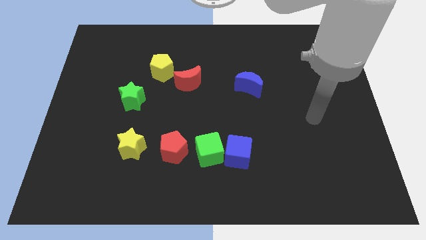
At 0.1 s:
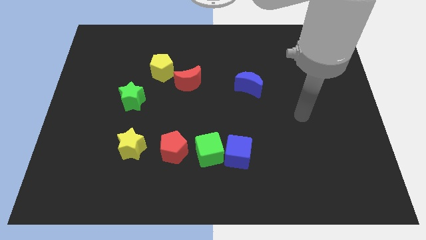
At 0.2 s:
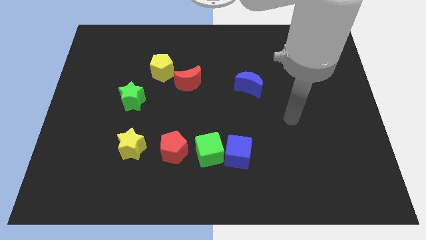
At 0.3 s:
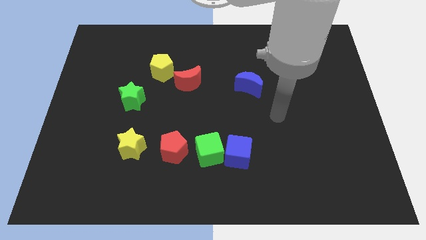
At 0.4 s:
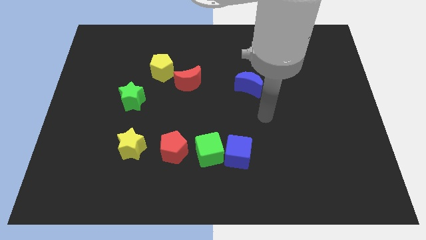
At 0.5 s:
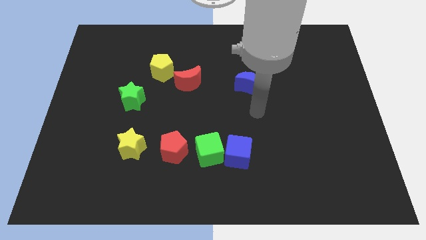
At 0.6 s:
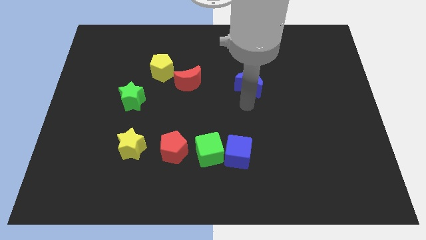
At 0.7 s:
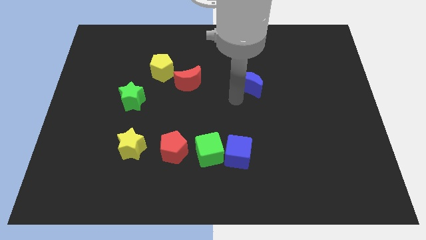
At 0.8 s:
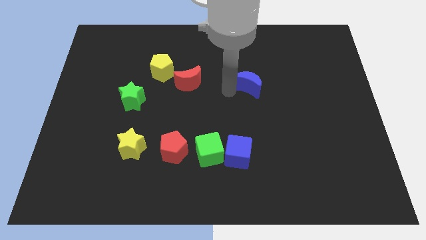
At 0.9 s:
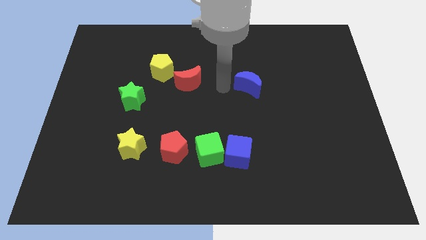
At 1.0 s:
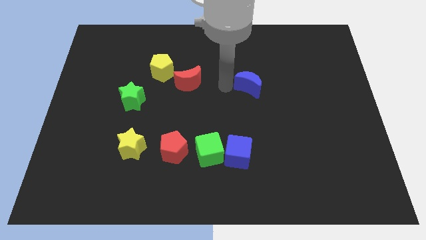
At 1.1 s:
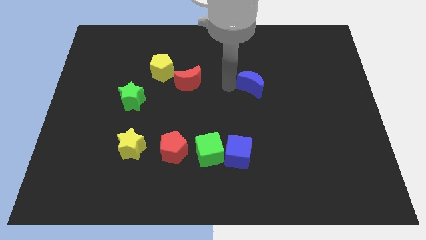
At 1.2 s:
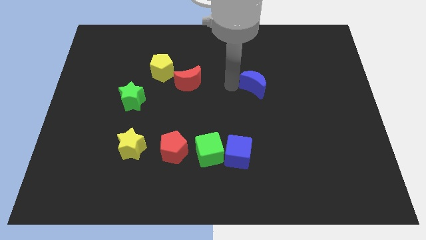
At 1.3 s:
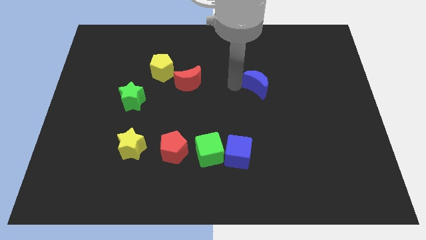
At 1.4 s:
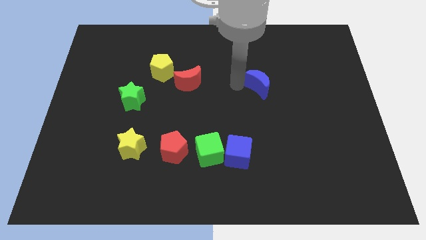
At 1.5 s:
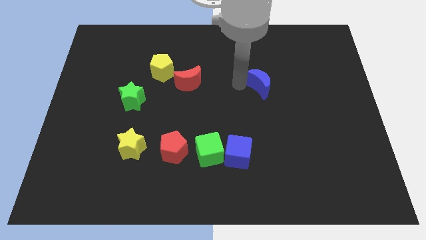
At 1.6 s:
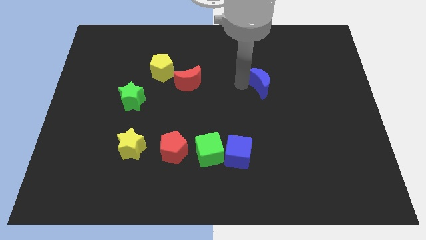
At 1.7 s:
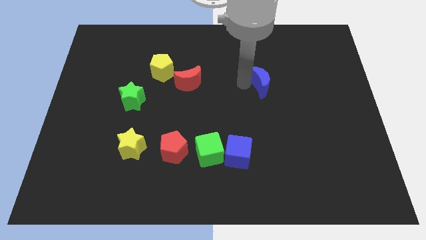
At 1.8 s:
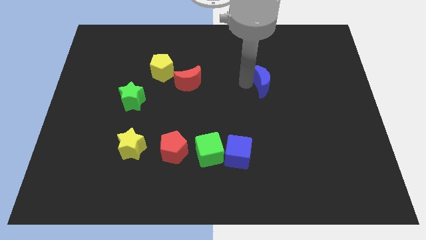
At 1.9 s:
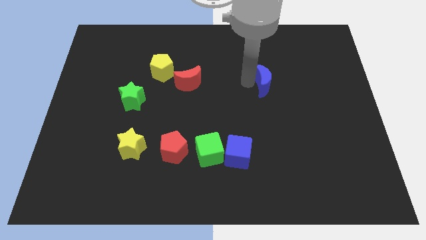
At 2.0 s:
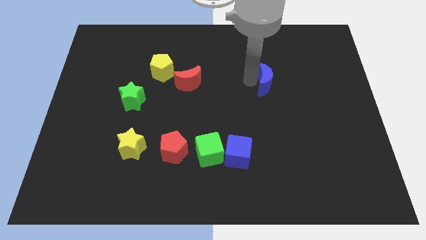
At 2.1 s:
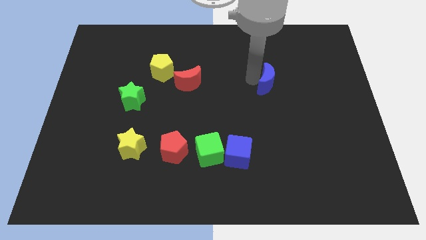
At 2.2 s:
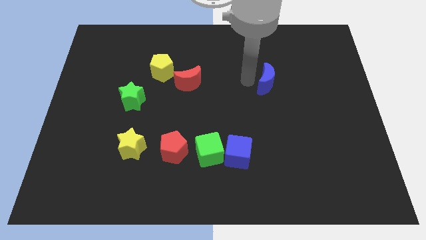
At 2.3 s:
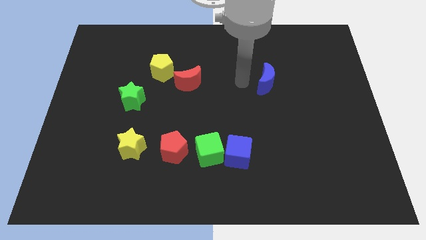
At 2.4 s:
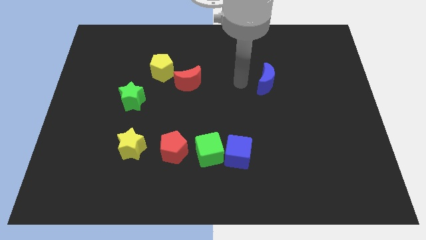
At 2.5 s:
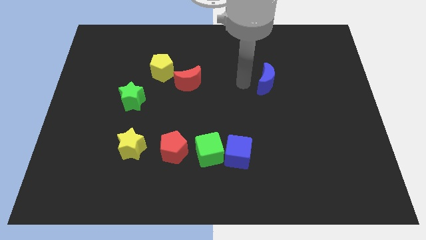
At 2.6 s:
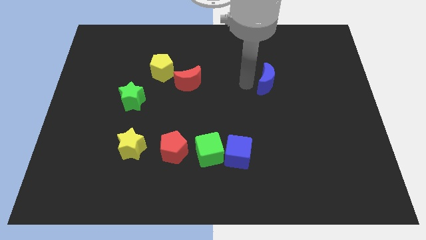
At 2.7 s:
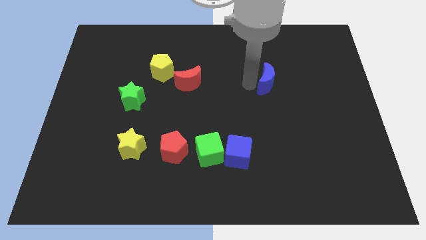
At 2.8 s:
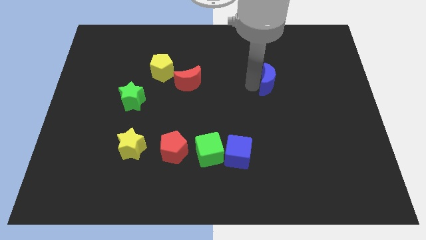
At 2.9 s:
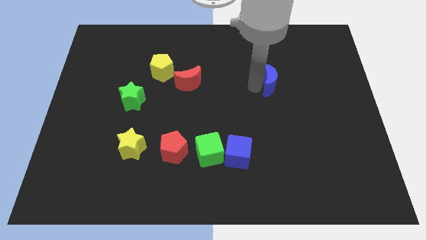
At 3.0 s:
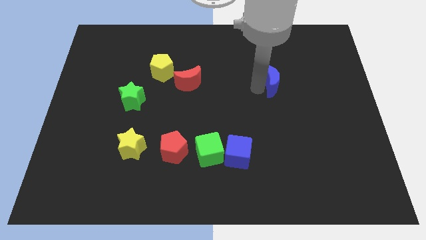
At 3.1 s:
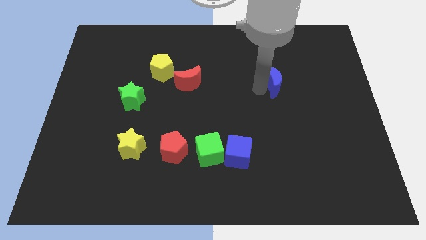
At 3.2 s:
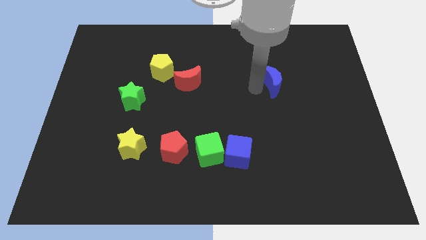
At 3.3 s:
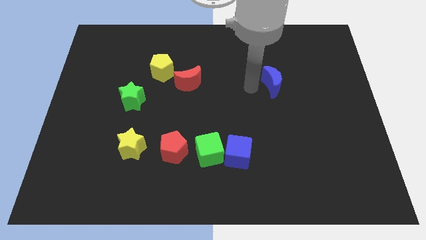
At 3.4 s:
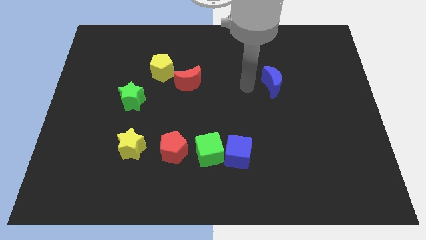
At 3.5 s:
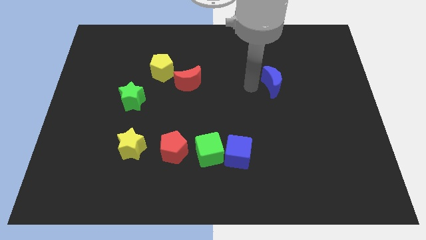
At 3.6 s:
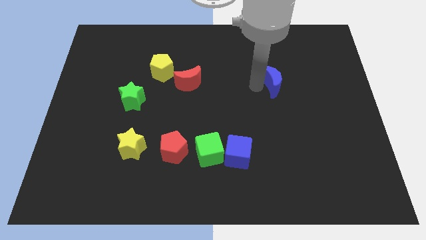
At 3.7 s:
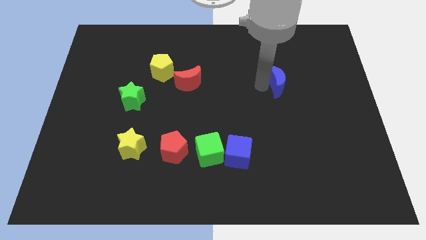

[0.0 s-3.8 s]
slightly move the blue moon right

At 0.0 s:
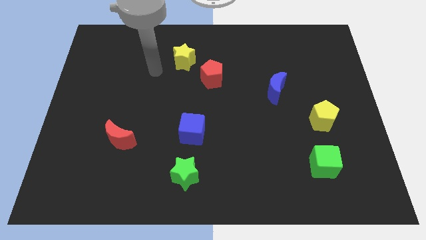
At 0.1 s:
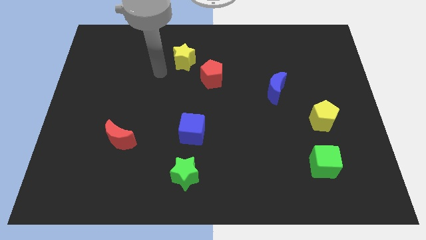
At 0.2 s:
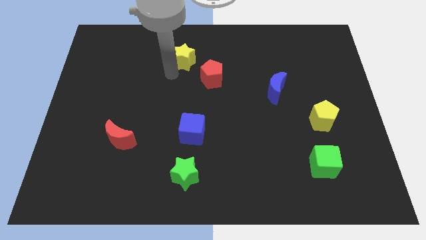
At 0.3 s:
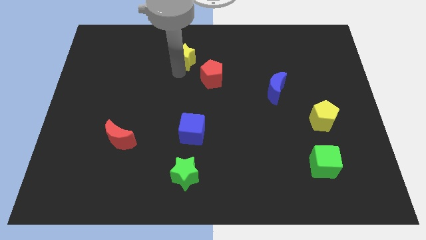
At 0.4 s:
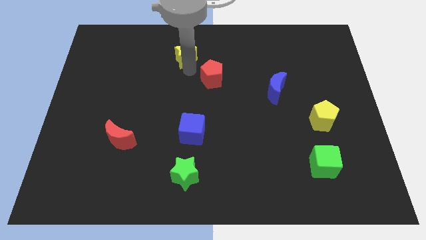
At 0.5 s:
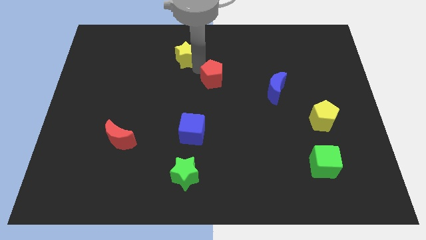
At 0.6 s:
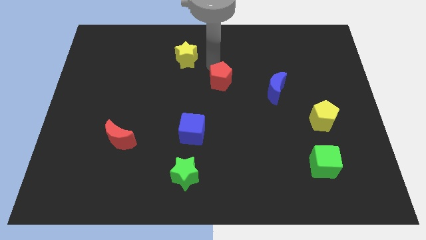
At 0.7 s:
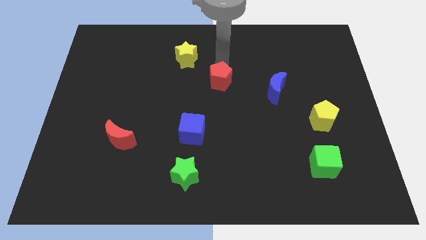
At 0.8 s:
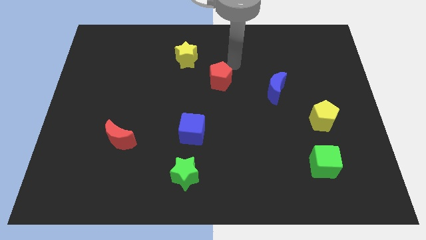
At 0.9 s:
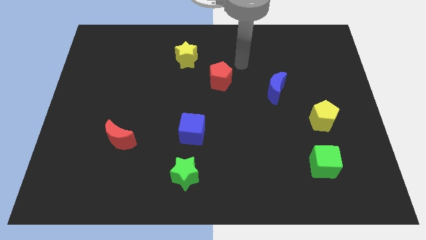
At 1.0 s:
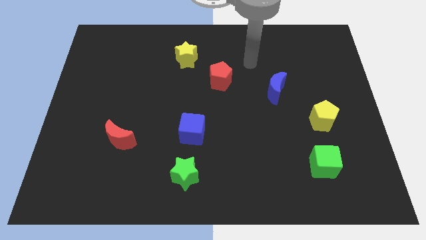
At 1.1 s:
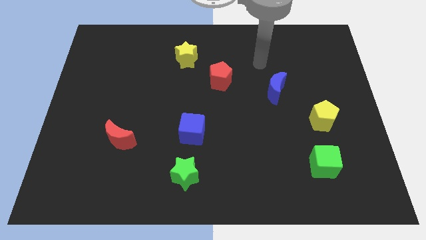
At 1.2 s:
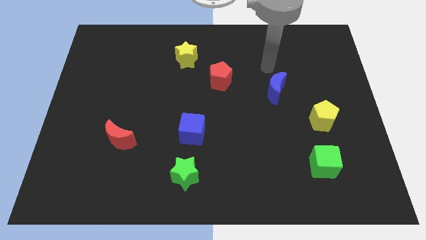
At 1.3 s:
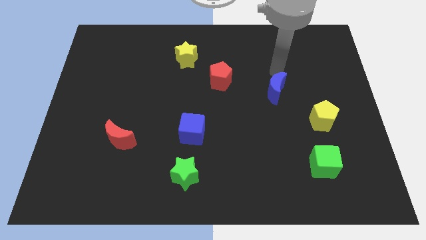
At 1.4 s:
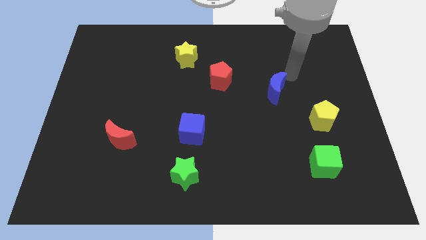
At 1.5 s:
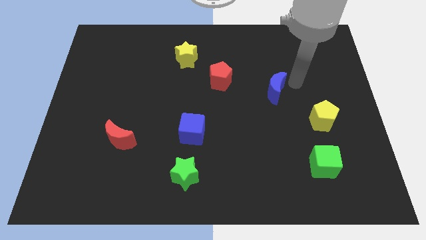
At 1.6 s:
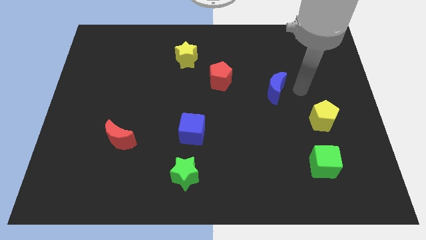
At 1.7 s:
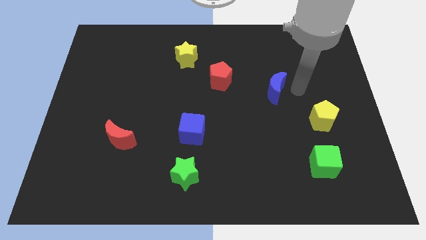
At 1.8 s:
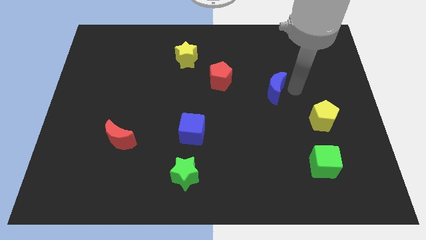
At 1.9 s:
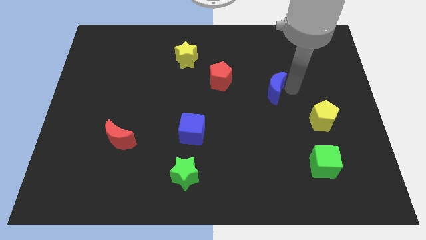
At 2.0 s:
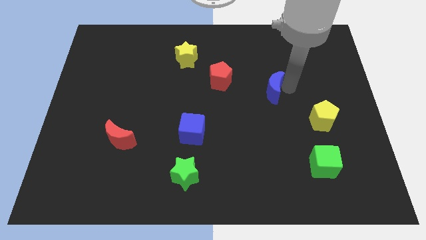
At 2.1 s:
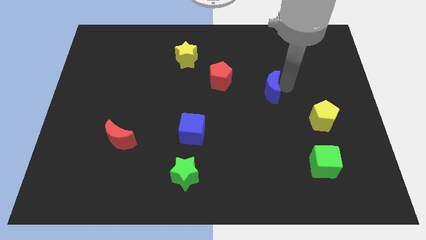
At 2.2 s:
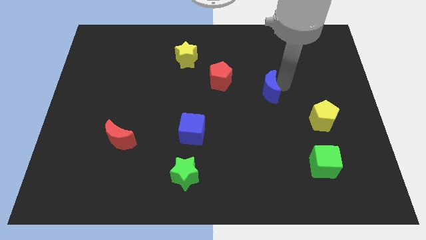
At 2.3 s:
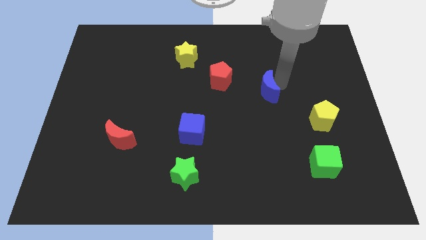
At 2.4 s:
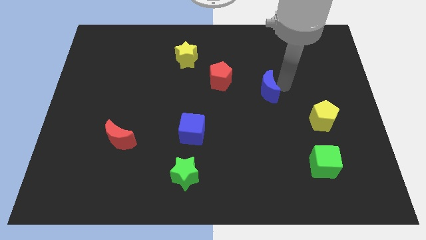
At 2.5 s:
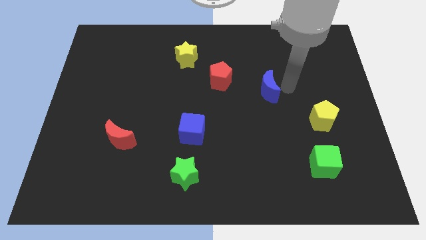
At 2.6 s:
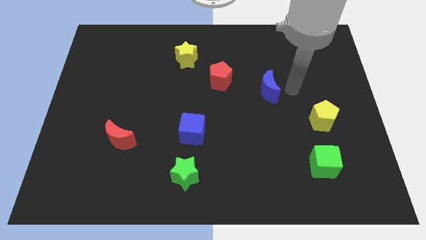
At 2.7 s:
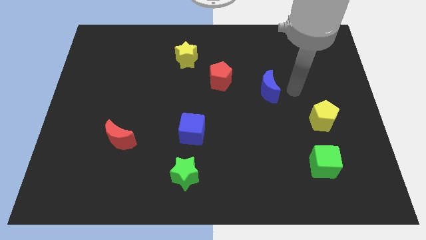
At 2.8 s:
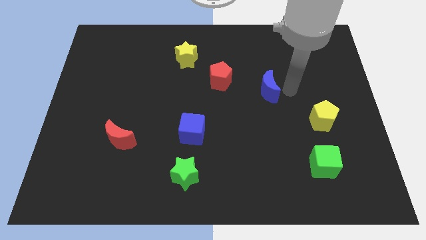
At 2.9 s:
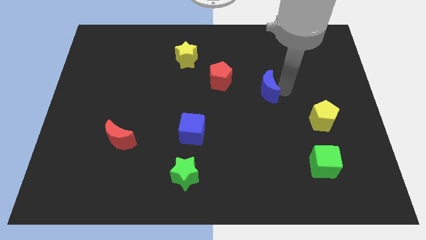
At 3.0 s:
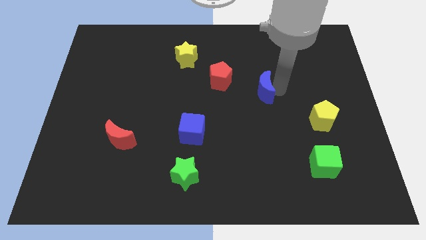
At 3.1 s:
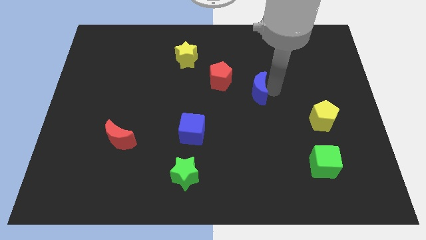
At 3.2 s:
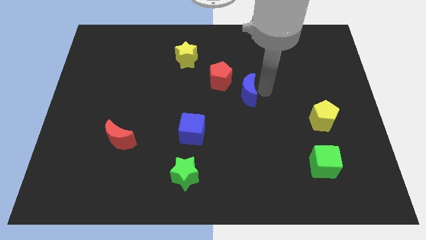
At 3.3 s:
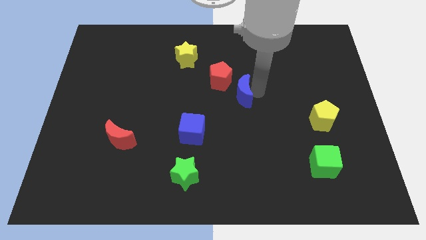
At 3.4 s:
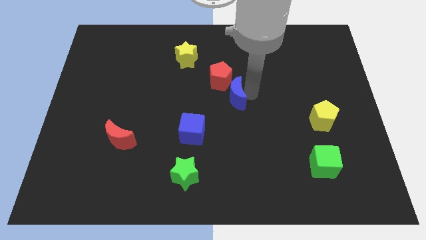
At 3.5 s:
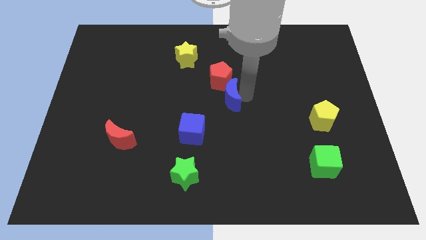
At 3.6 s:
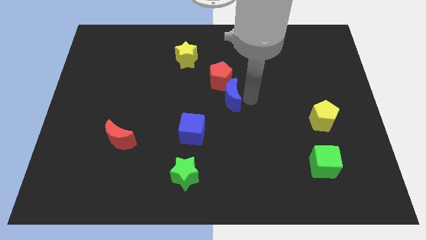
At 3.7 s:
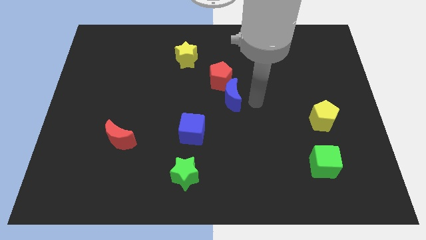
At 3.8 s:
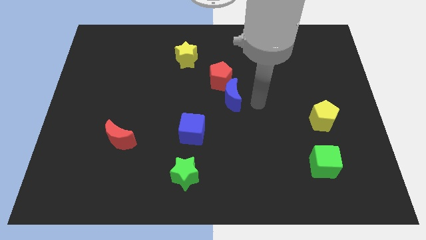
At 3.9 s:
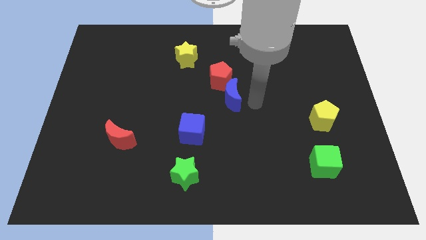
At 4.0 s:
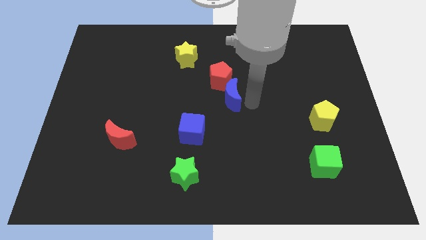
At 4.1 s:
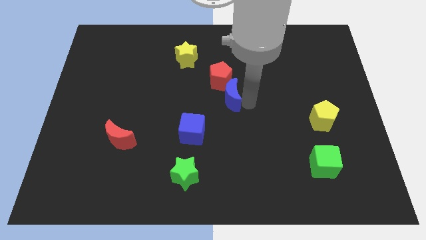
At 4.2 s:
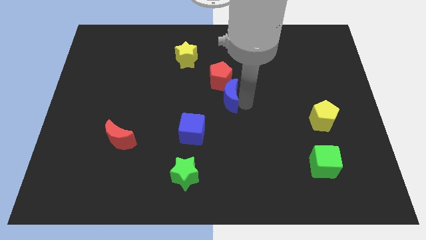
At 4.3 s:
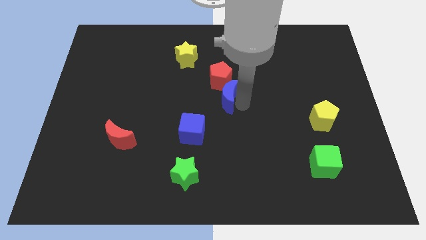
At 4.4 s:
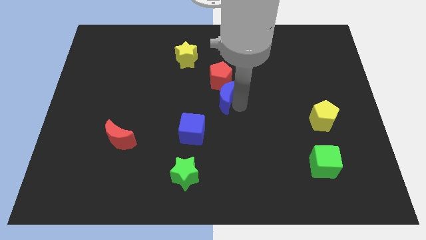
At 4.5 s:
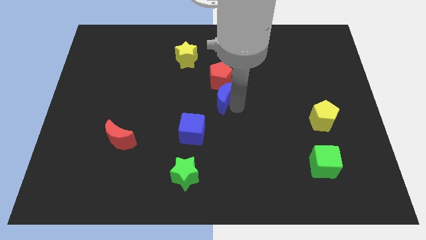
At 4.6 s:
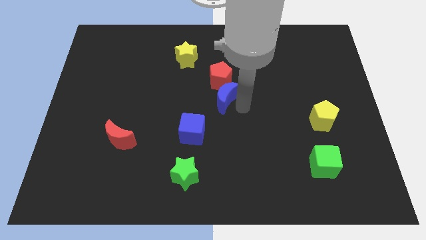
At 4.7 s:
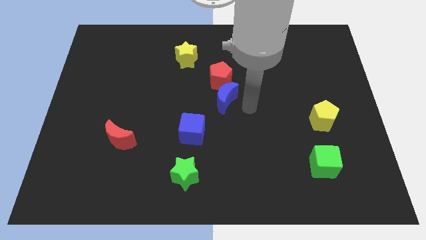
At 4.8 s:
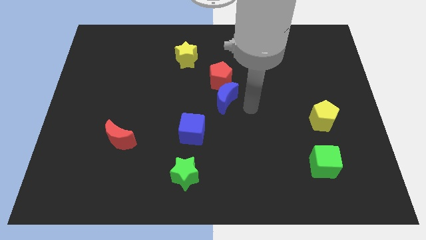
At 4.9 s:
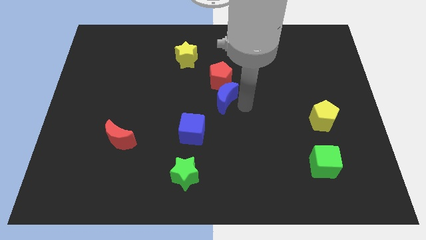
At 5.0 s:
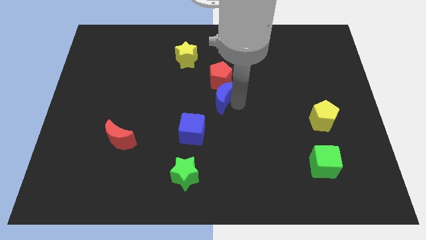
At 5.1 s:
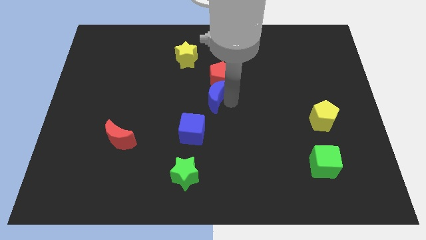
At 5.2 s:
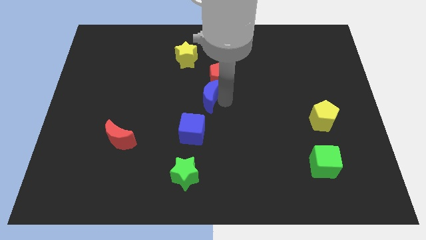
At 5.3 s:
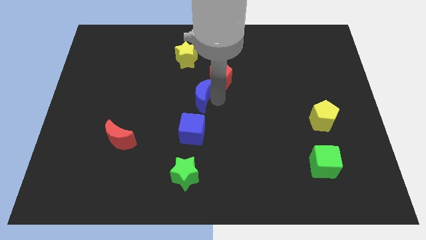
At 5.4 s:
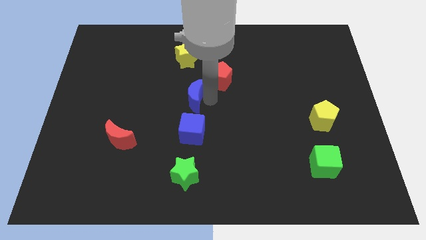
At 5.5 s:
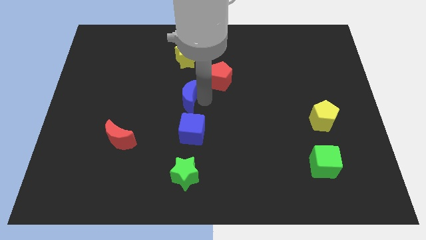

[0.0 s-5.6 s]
slide the blue moon to the left
